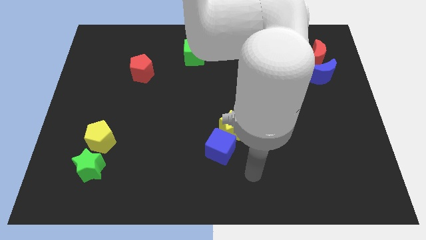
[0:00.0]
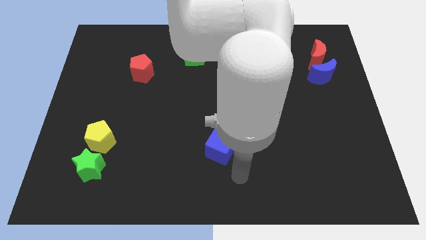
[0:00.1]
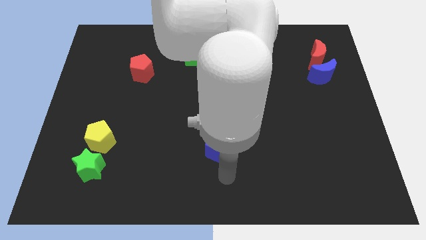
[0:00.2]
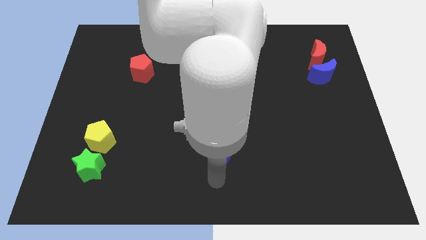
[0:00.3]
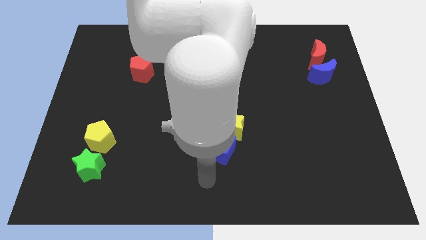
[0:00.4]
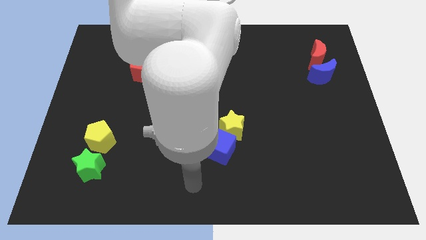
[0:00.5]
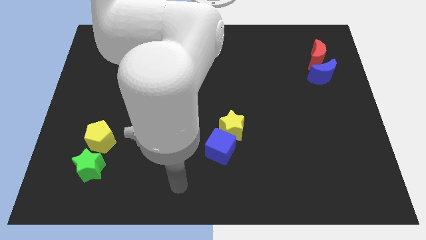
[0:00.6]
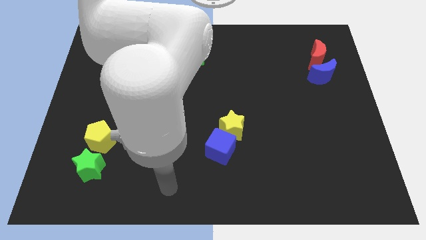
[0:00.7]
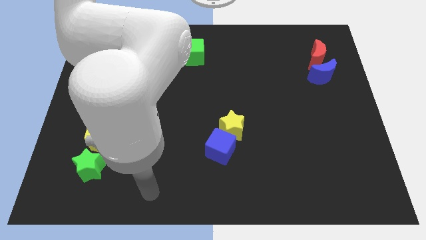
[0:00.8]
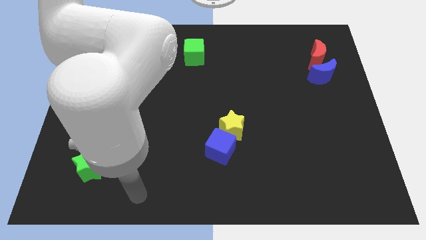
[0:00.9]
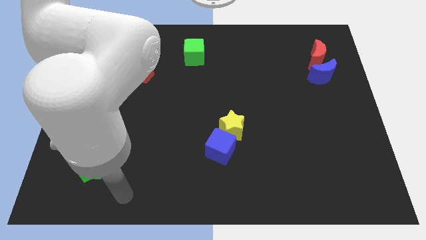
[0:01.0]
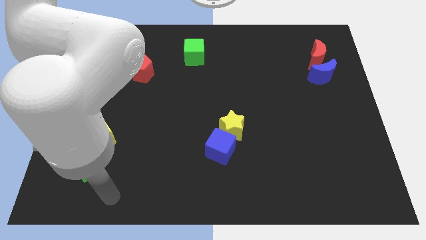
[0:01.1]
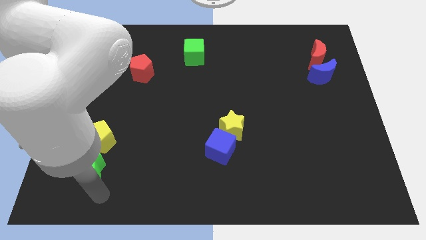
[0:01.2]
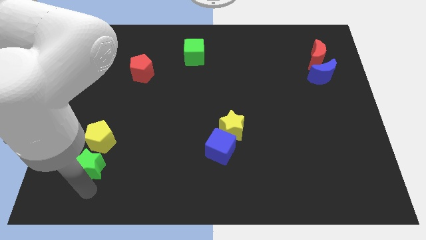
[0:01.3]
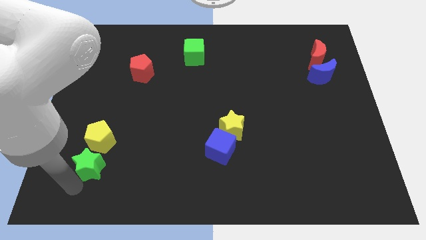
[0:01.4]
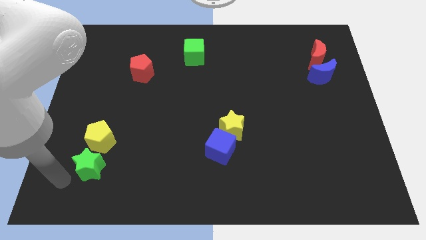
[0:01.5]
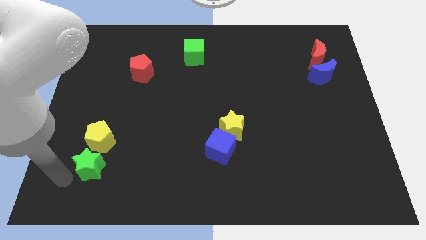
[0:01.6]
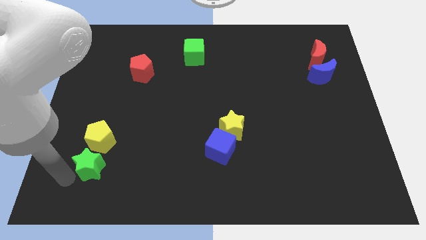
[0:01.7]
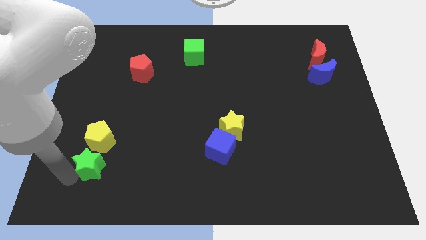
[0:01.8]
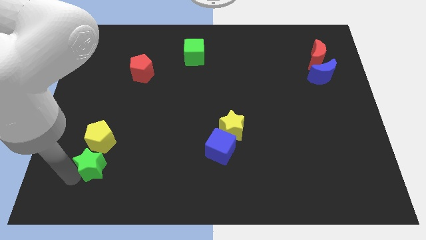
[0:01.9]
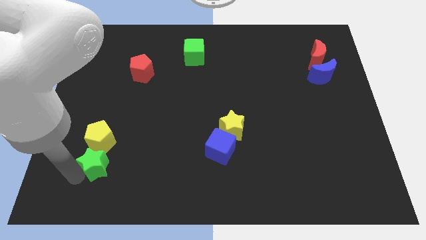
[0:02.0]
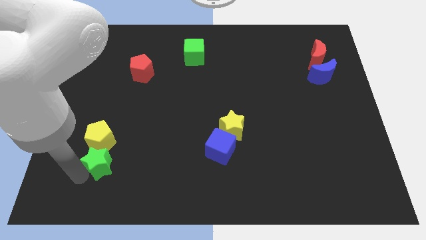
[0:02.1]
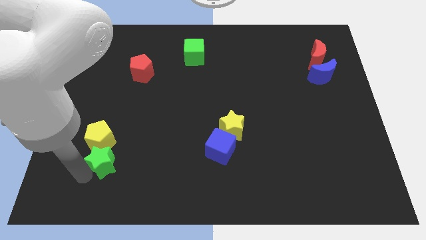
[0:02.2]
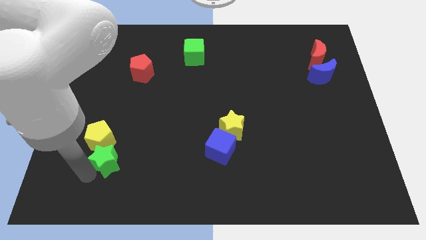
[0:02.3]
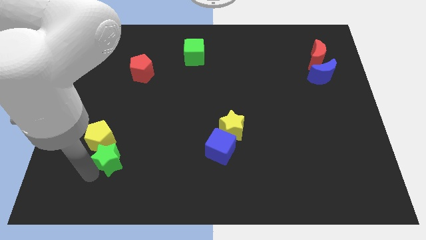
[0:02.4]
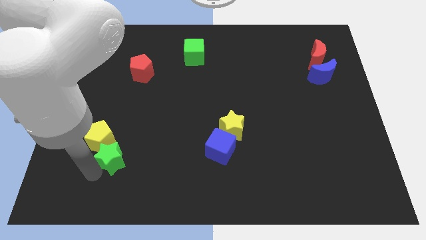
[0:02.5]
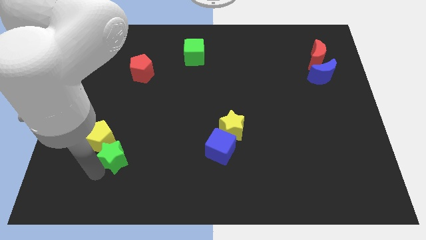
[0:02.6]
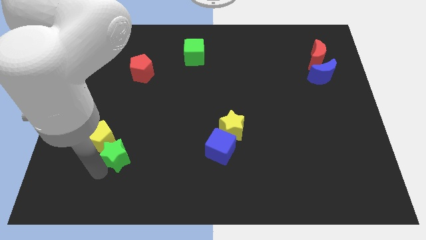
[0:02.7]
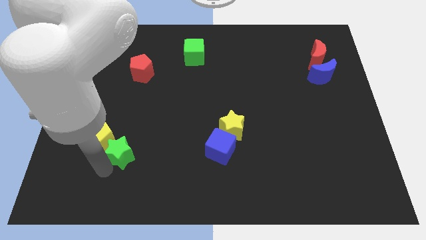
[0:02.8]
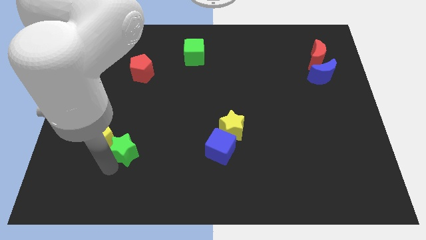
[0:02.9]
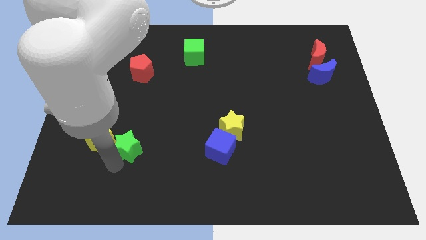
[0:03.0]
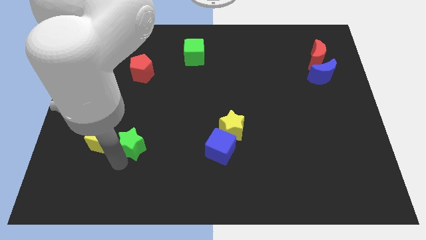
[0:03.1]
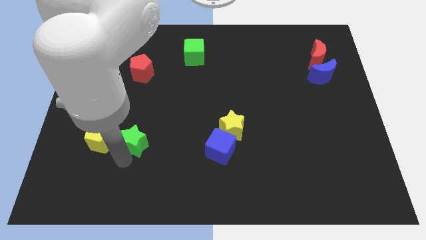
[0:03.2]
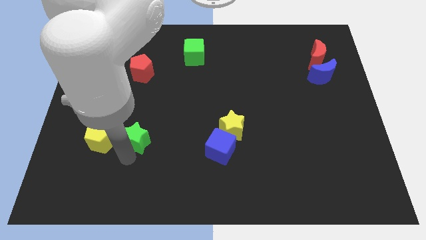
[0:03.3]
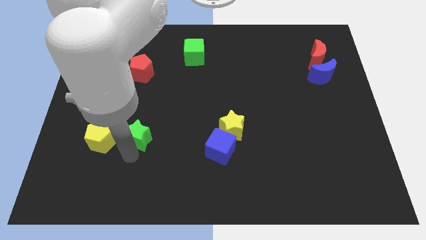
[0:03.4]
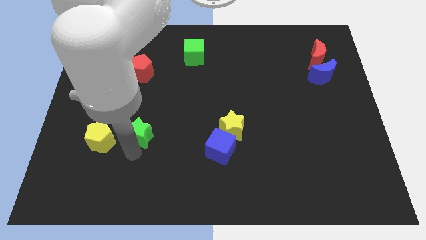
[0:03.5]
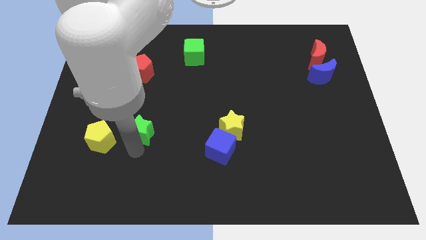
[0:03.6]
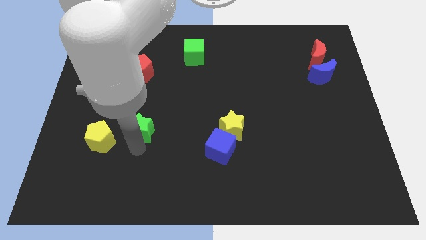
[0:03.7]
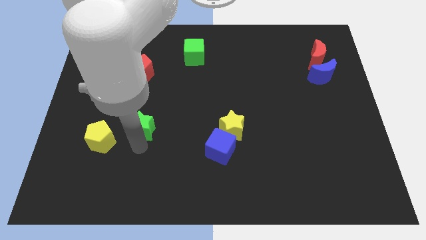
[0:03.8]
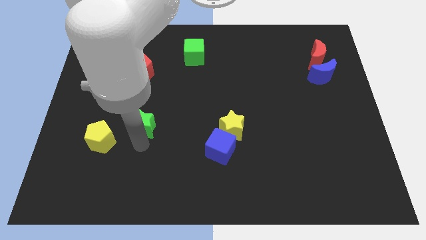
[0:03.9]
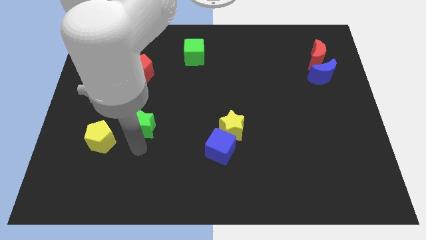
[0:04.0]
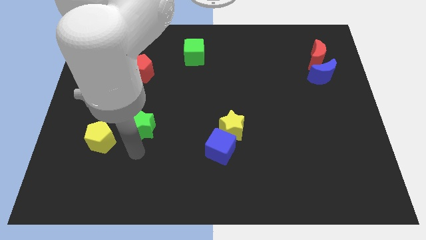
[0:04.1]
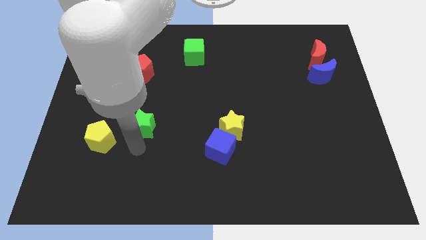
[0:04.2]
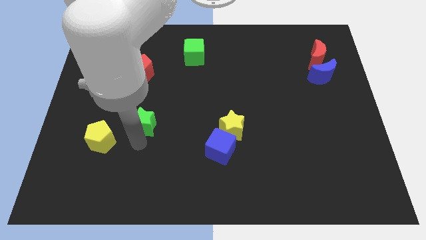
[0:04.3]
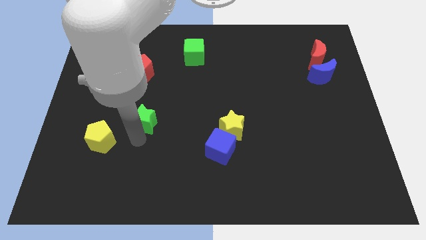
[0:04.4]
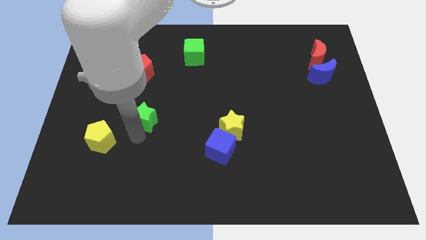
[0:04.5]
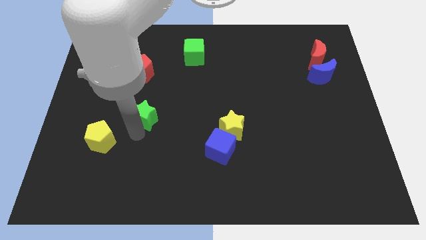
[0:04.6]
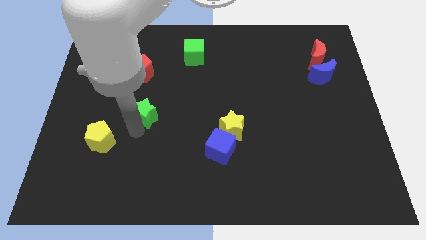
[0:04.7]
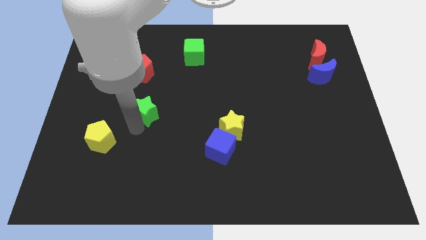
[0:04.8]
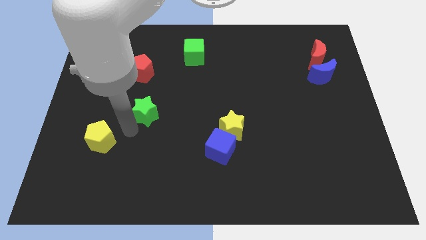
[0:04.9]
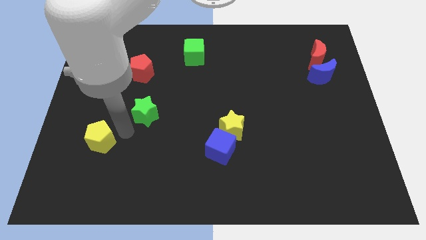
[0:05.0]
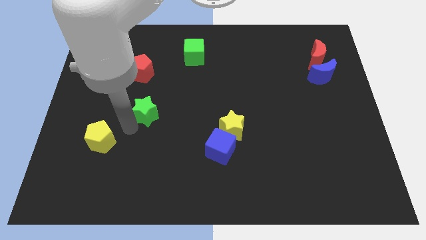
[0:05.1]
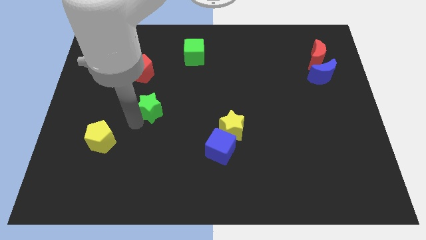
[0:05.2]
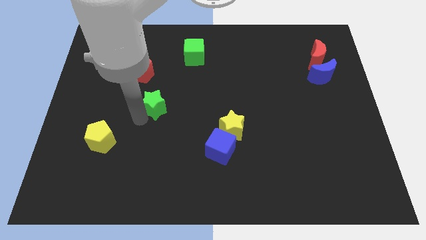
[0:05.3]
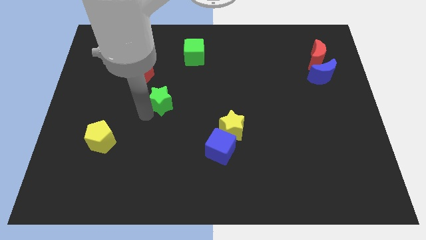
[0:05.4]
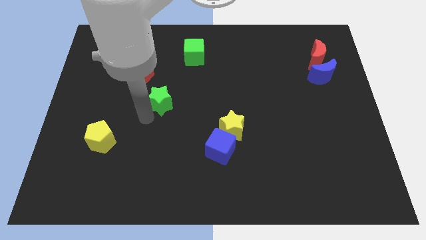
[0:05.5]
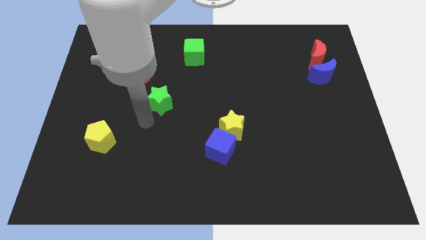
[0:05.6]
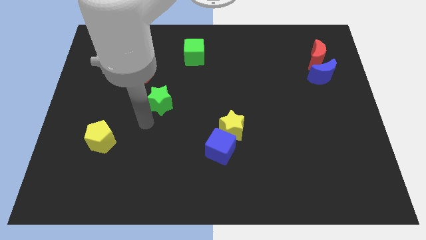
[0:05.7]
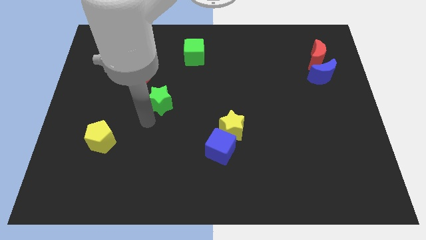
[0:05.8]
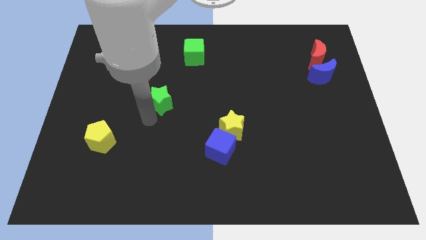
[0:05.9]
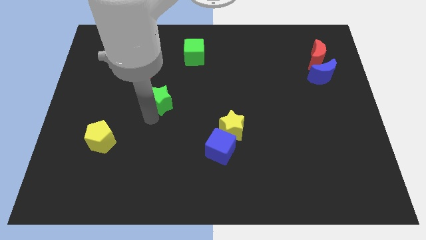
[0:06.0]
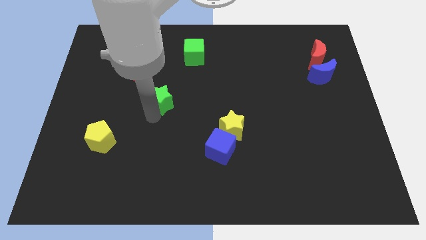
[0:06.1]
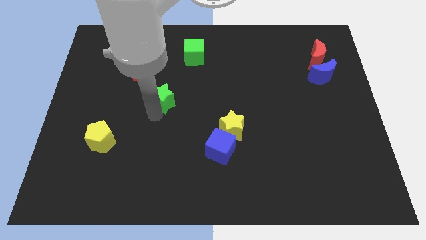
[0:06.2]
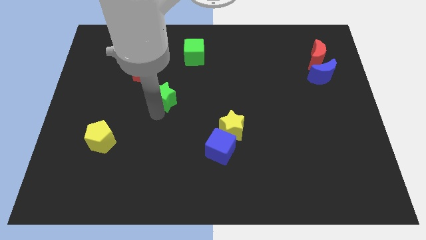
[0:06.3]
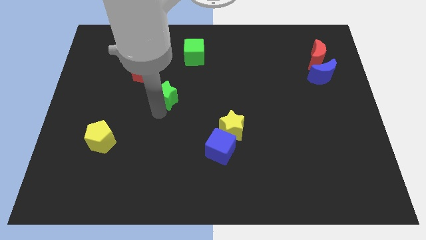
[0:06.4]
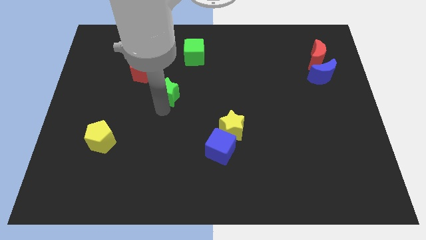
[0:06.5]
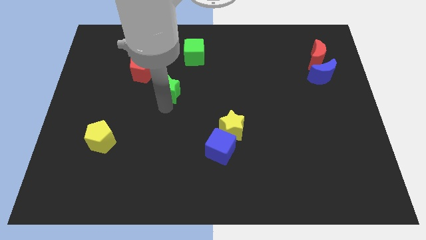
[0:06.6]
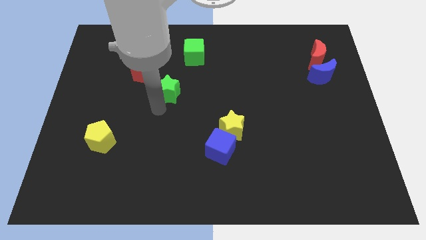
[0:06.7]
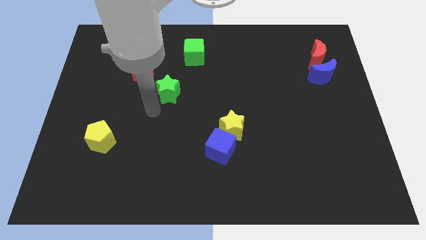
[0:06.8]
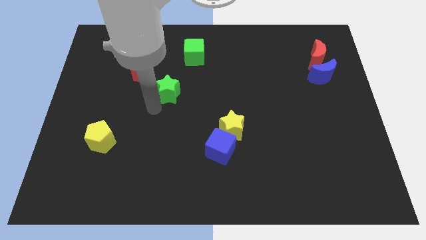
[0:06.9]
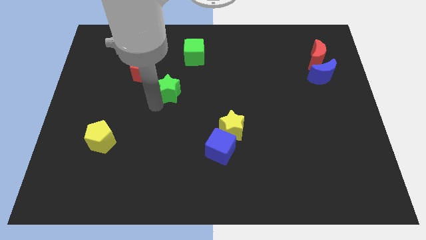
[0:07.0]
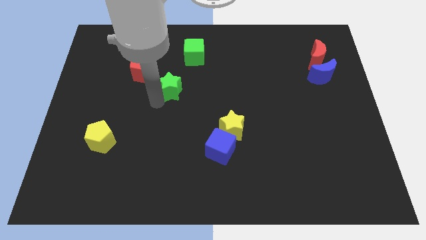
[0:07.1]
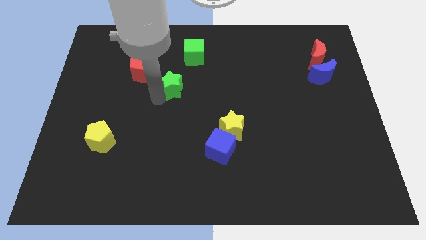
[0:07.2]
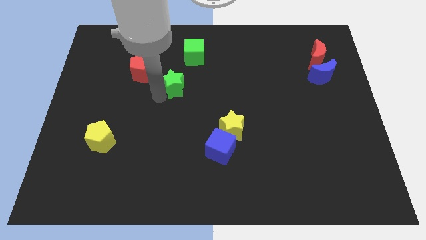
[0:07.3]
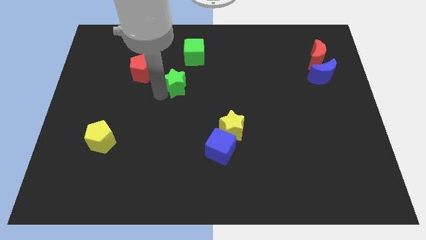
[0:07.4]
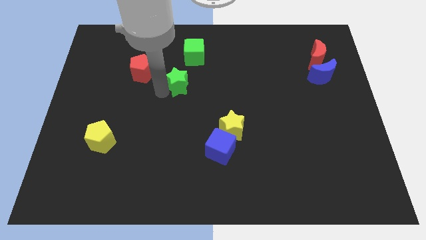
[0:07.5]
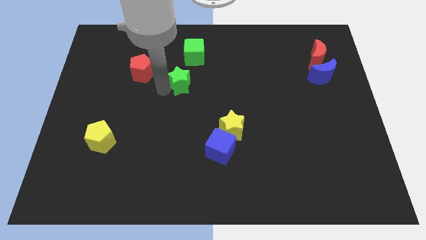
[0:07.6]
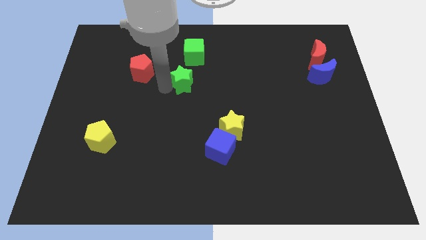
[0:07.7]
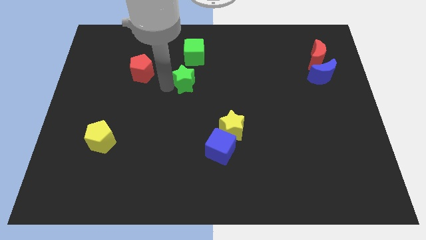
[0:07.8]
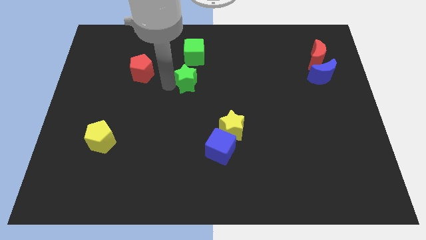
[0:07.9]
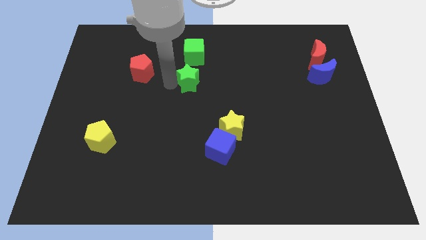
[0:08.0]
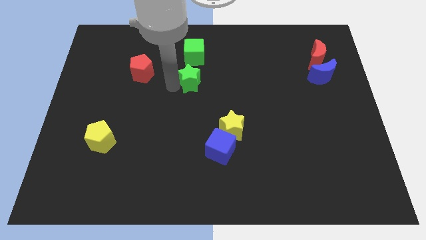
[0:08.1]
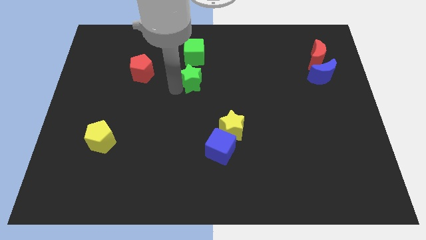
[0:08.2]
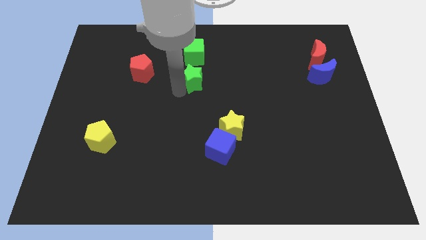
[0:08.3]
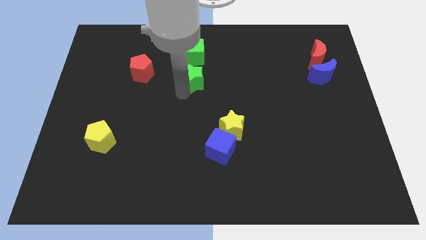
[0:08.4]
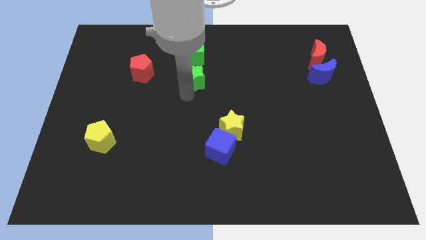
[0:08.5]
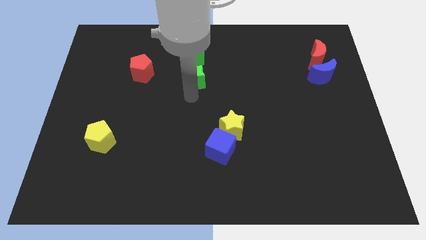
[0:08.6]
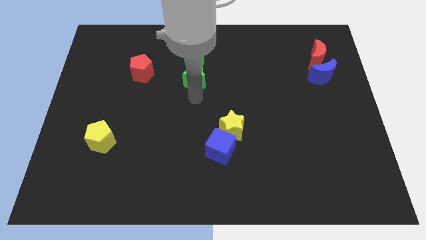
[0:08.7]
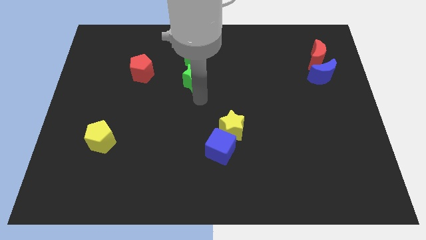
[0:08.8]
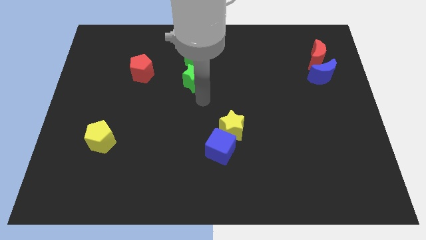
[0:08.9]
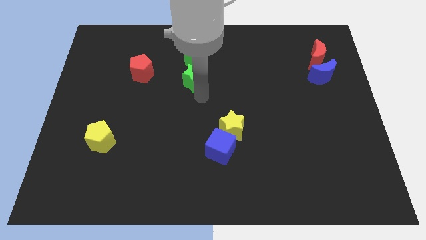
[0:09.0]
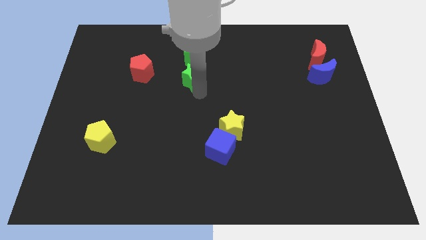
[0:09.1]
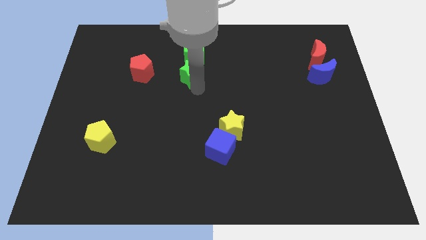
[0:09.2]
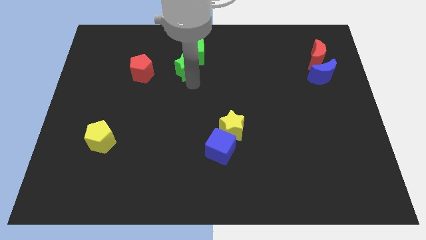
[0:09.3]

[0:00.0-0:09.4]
push the green star towards the green cube
